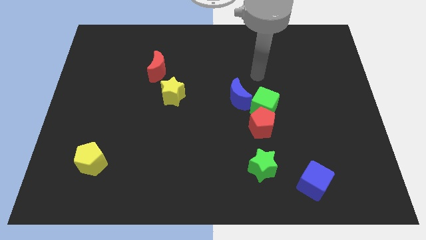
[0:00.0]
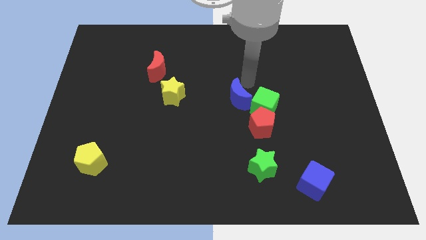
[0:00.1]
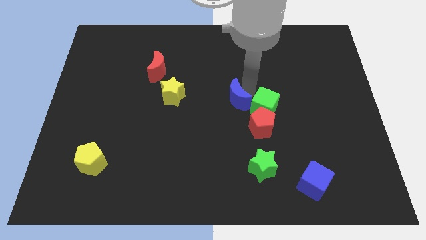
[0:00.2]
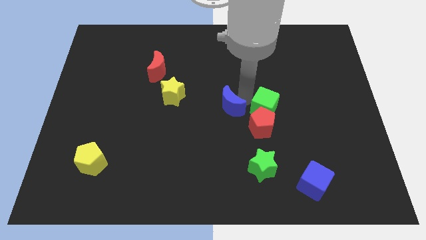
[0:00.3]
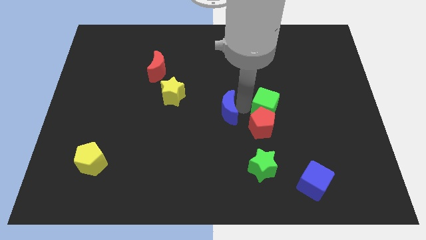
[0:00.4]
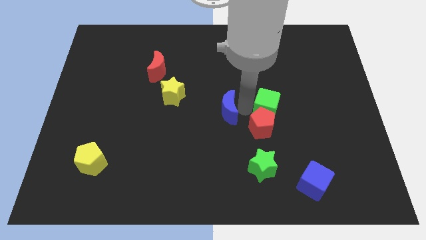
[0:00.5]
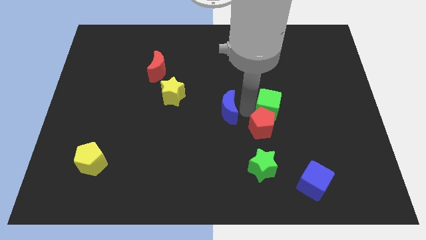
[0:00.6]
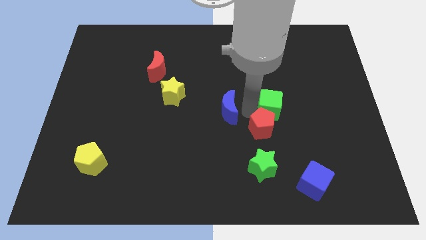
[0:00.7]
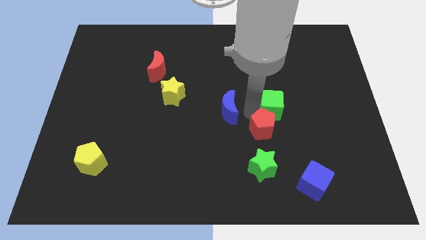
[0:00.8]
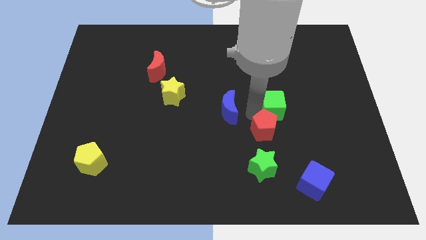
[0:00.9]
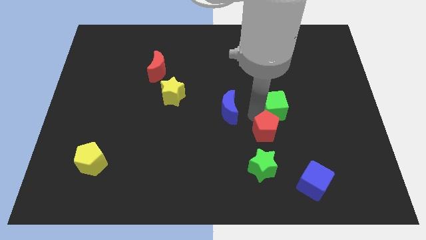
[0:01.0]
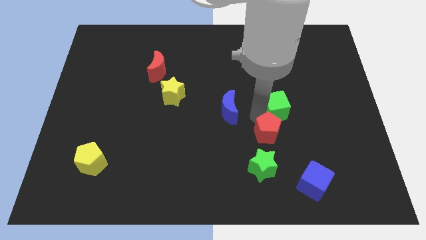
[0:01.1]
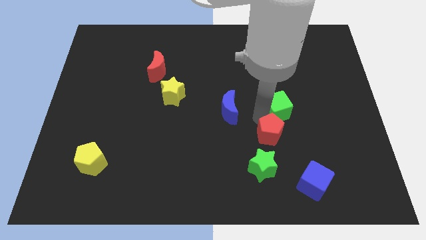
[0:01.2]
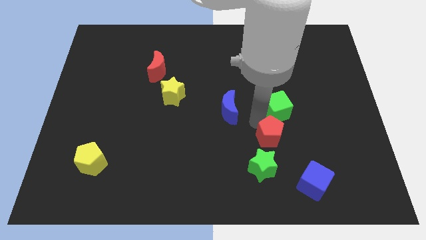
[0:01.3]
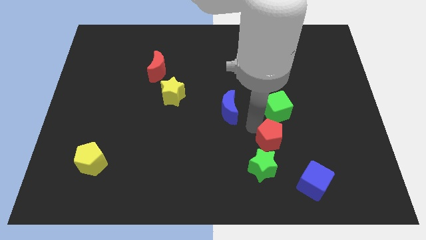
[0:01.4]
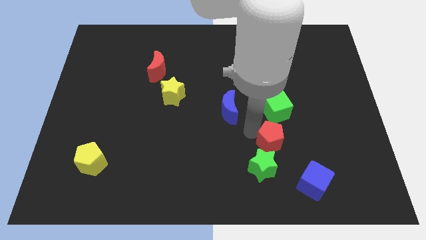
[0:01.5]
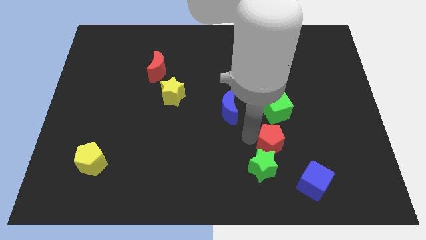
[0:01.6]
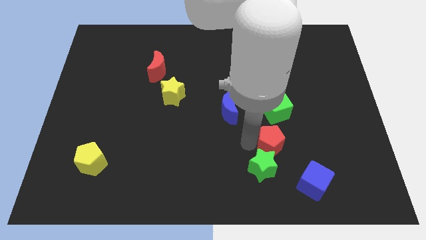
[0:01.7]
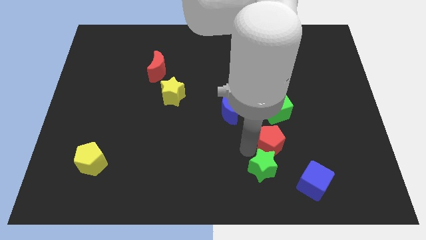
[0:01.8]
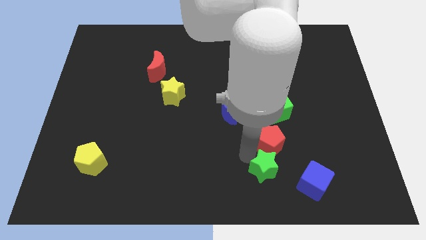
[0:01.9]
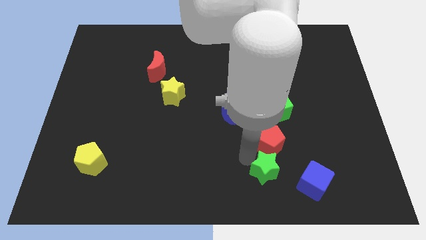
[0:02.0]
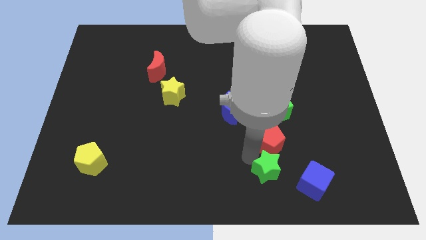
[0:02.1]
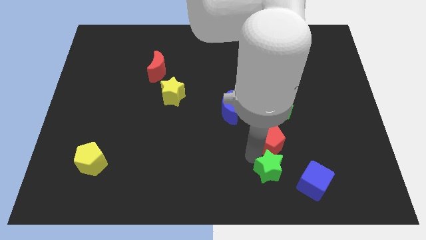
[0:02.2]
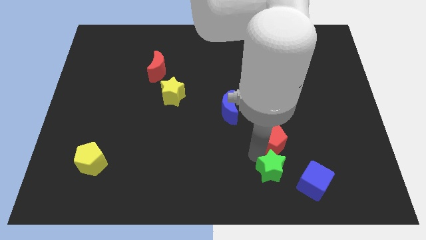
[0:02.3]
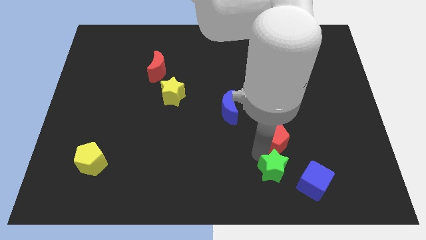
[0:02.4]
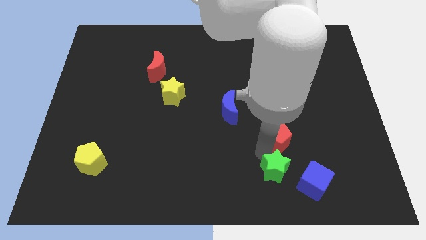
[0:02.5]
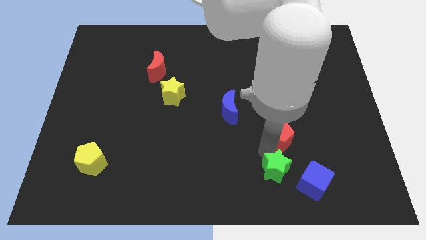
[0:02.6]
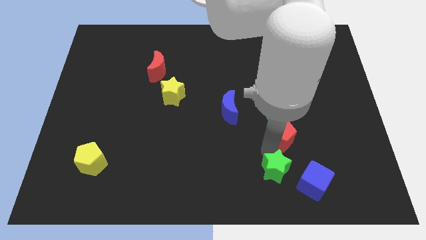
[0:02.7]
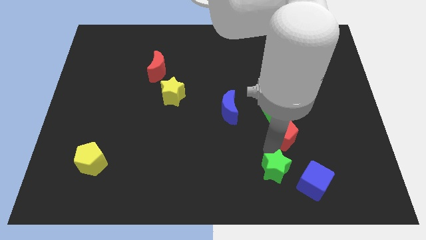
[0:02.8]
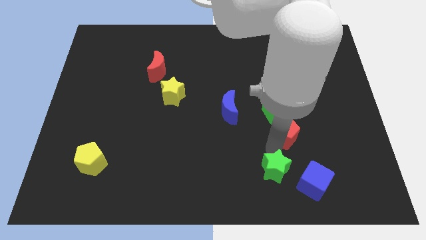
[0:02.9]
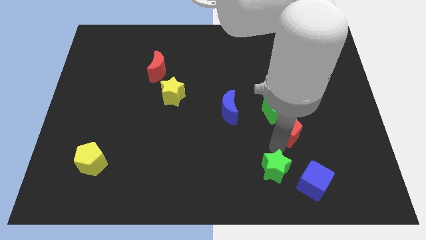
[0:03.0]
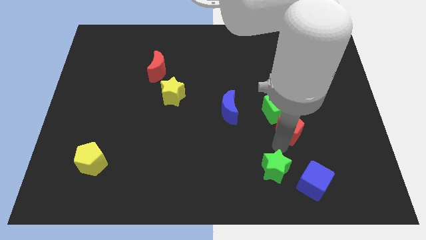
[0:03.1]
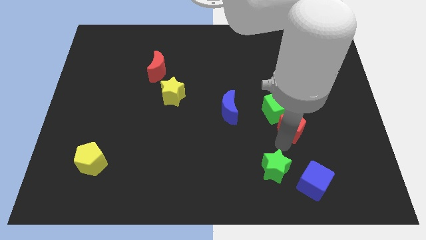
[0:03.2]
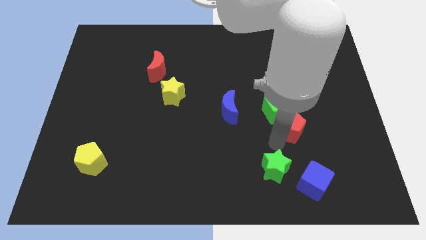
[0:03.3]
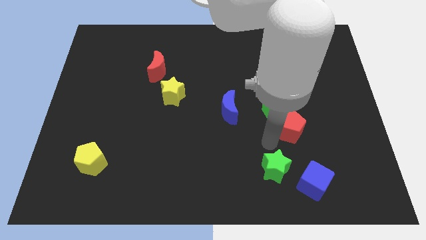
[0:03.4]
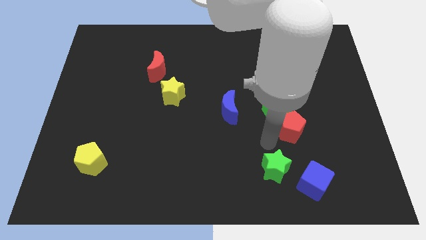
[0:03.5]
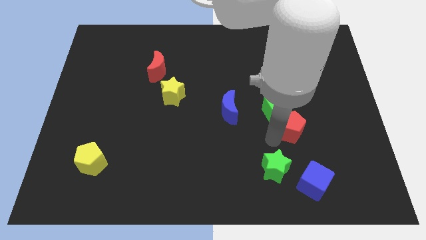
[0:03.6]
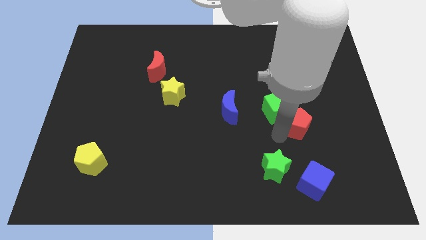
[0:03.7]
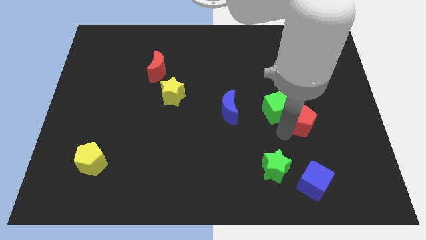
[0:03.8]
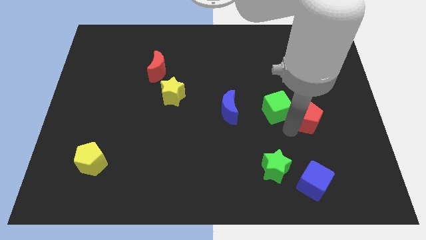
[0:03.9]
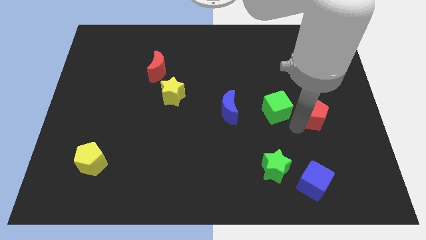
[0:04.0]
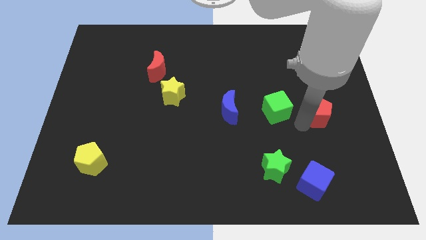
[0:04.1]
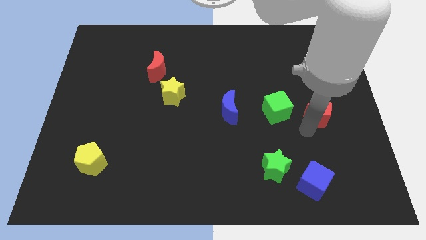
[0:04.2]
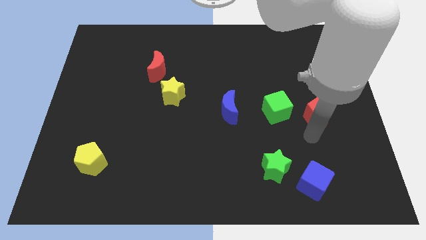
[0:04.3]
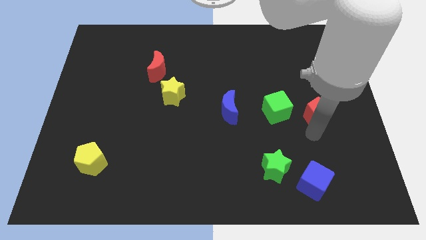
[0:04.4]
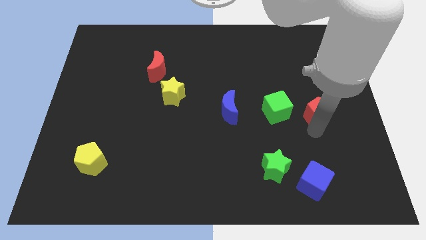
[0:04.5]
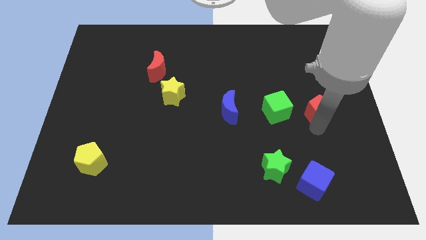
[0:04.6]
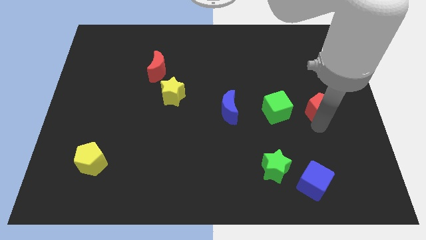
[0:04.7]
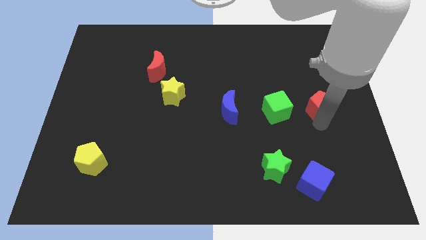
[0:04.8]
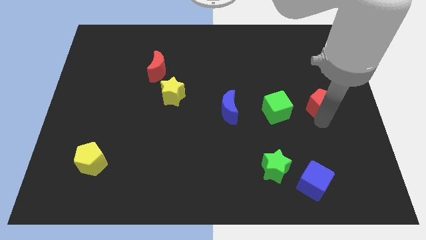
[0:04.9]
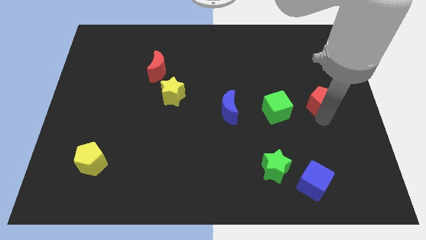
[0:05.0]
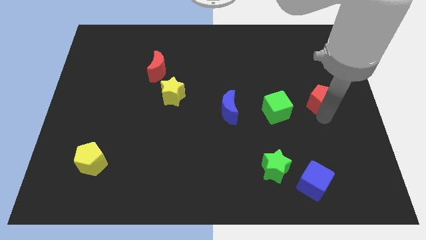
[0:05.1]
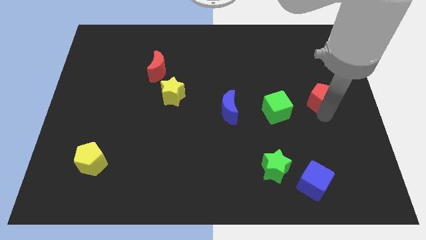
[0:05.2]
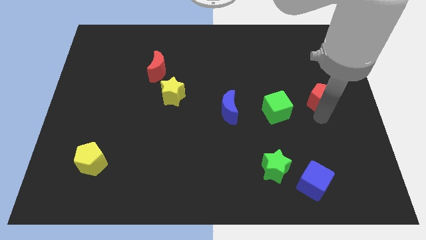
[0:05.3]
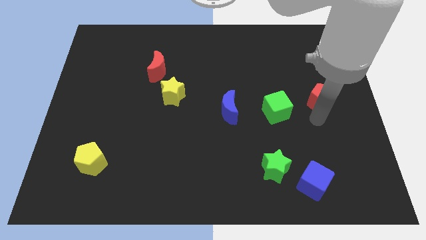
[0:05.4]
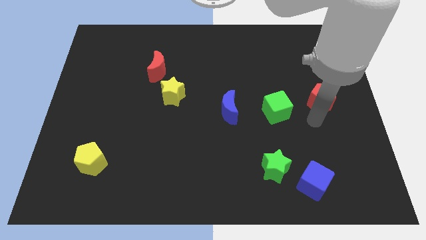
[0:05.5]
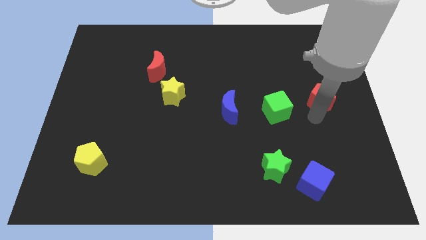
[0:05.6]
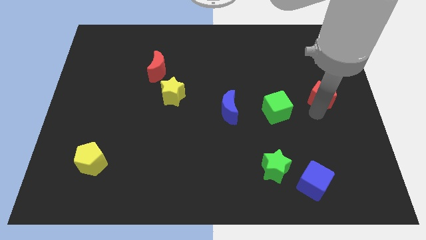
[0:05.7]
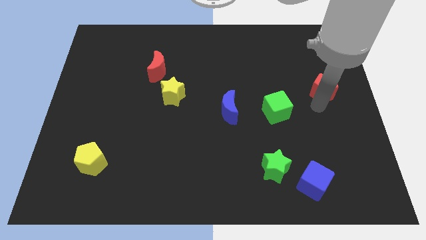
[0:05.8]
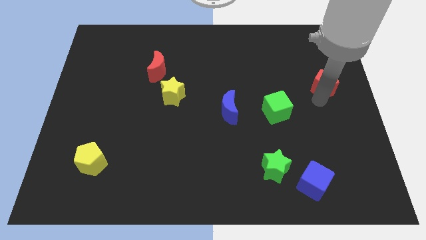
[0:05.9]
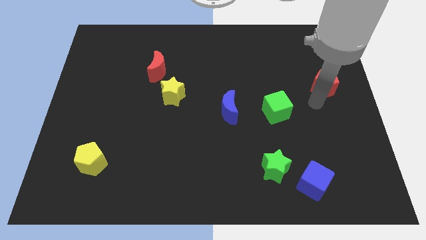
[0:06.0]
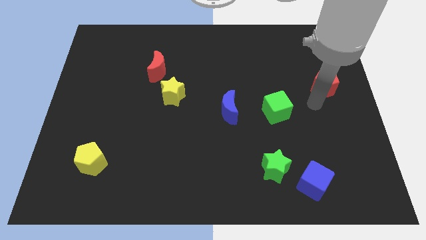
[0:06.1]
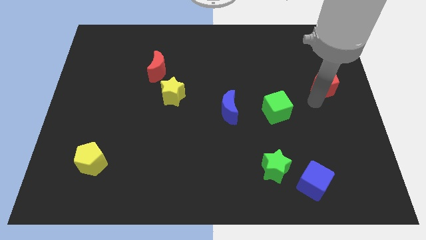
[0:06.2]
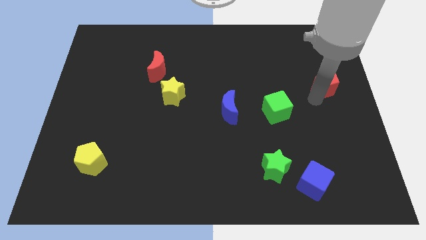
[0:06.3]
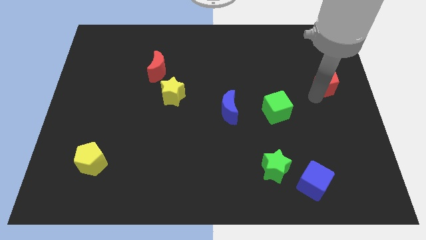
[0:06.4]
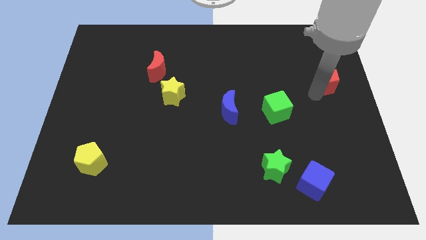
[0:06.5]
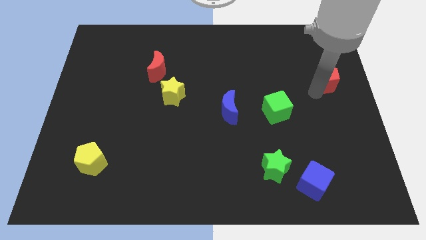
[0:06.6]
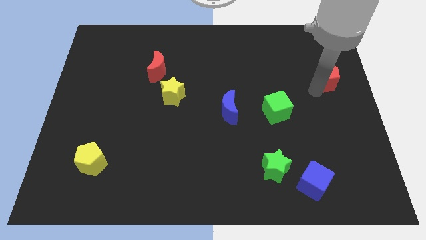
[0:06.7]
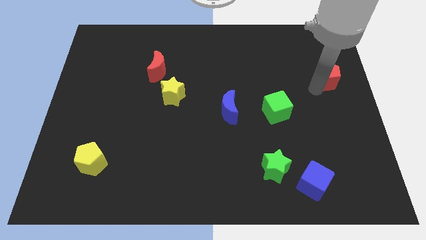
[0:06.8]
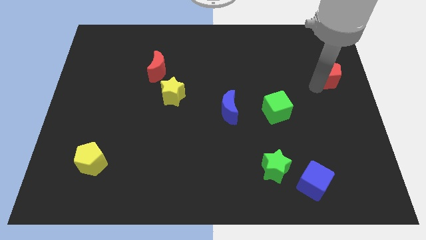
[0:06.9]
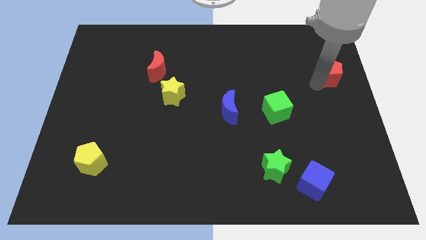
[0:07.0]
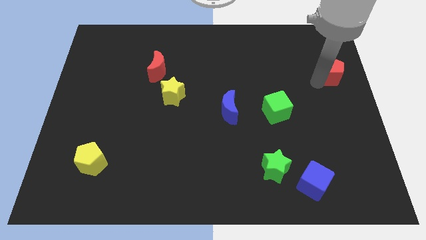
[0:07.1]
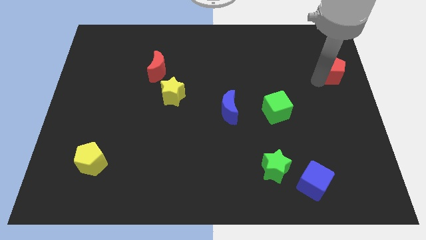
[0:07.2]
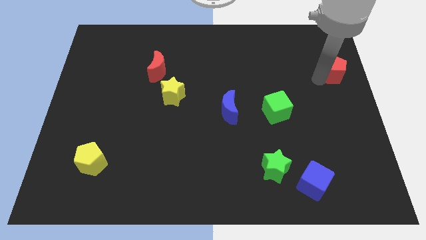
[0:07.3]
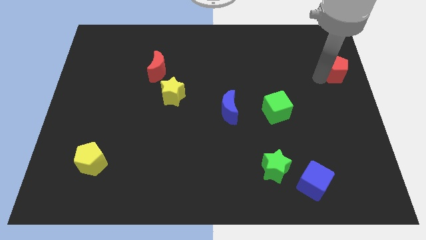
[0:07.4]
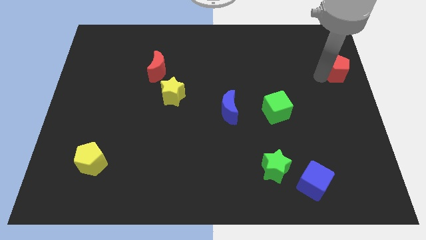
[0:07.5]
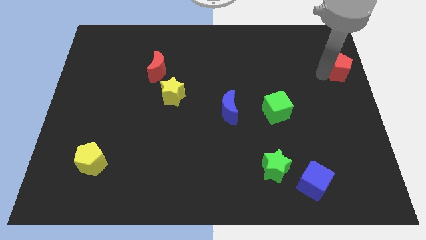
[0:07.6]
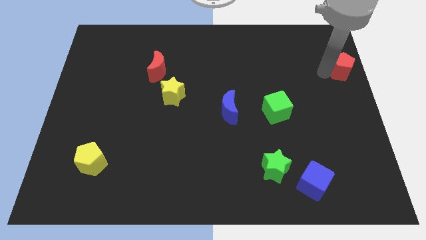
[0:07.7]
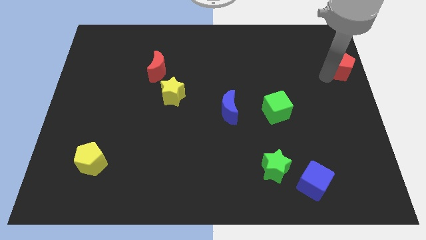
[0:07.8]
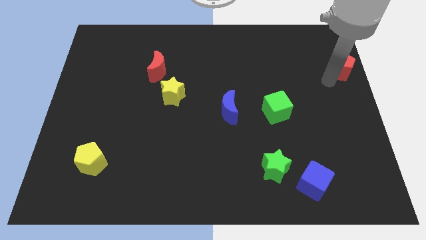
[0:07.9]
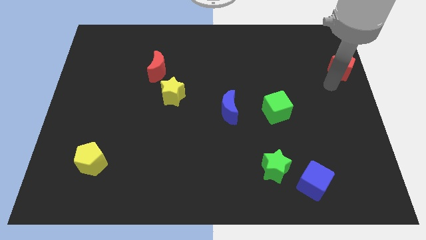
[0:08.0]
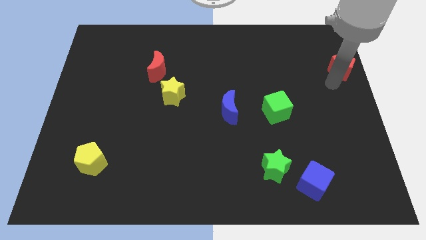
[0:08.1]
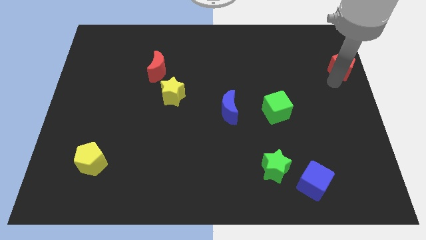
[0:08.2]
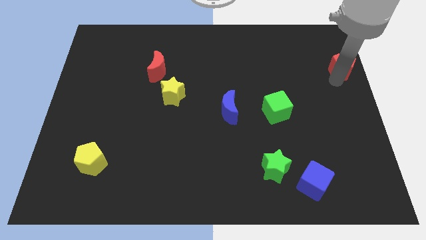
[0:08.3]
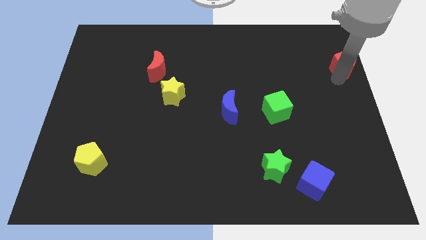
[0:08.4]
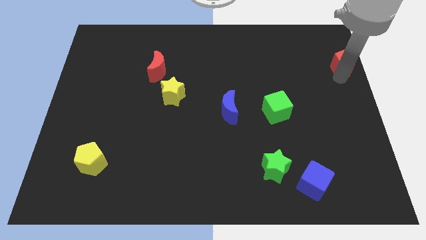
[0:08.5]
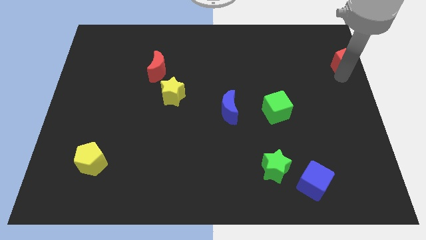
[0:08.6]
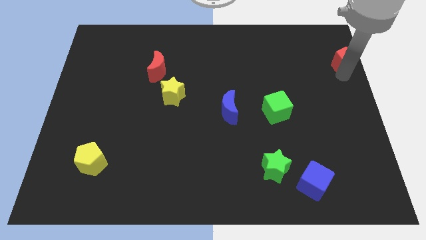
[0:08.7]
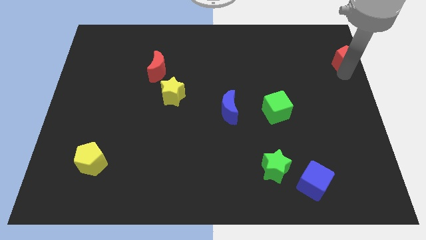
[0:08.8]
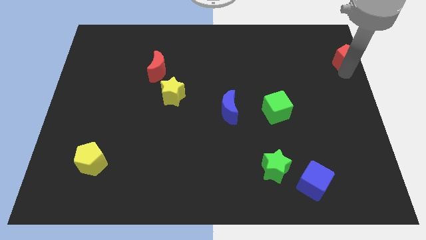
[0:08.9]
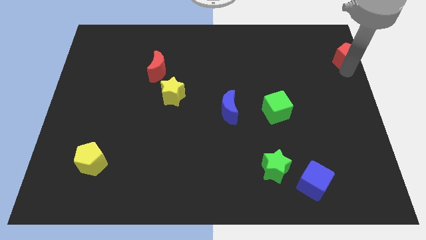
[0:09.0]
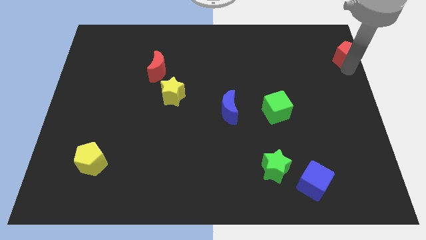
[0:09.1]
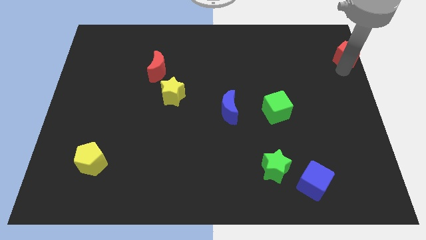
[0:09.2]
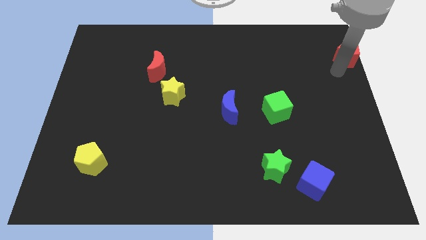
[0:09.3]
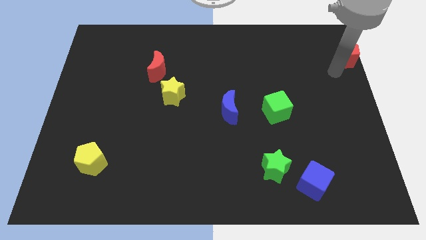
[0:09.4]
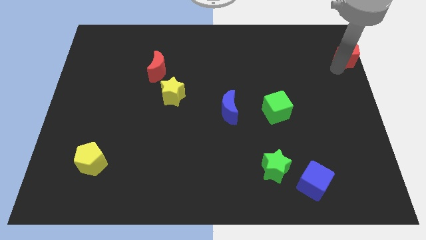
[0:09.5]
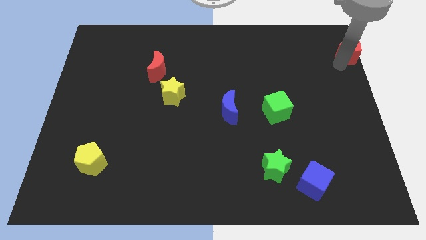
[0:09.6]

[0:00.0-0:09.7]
put the red pentagon to the upper right corner
